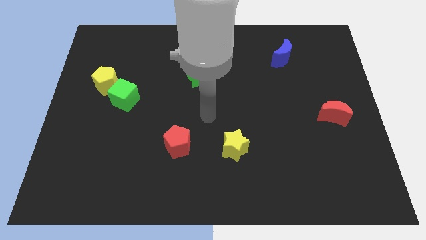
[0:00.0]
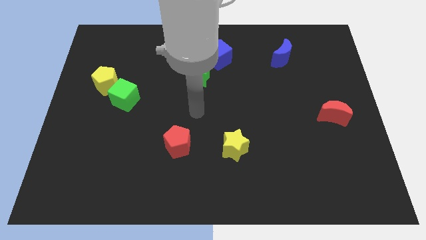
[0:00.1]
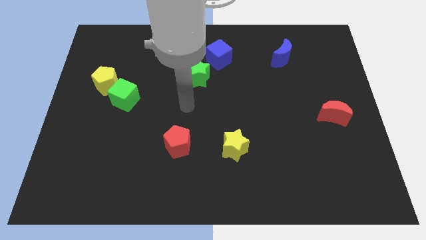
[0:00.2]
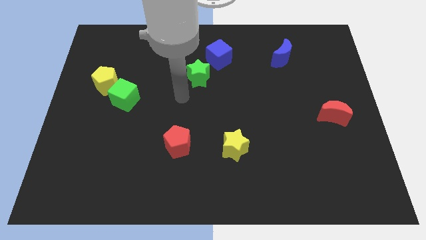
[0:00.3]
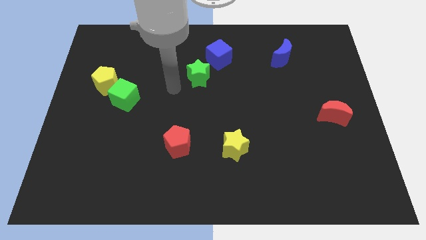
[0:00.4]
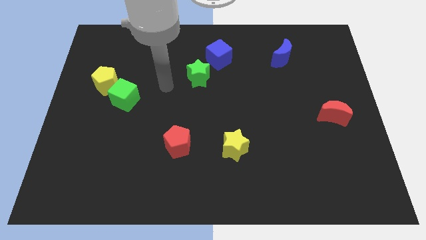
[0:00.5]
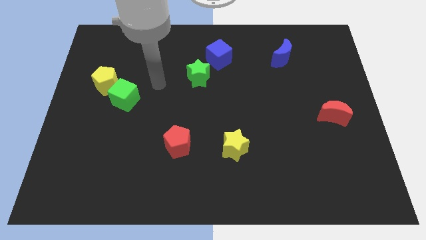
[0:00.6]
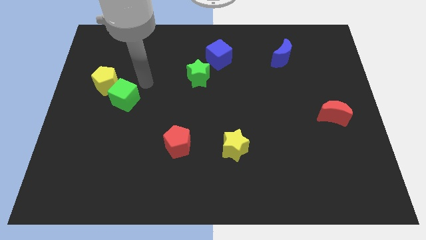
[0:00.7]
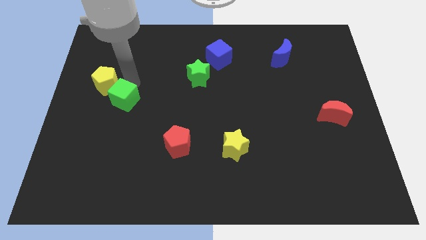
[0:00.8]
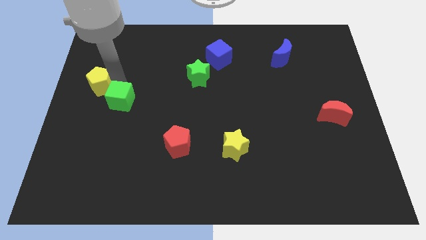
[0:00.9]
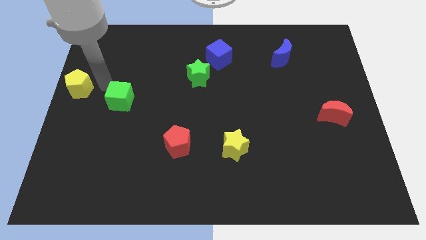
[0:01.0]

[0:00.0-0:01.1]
pull the green cube apart from the yellow pentagon

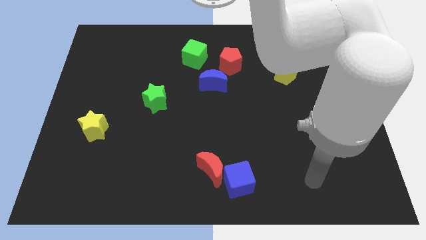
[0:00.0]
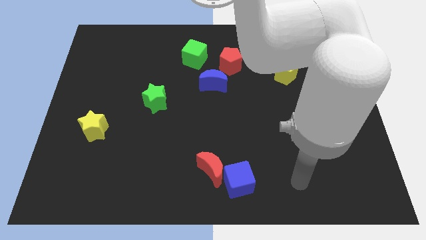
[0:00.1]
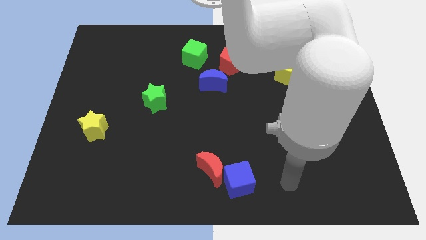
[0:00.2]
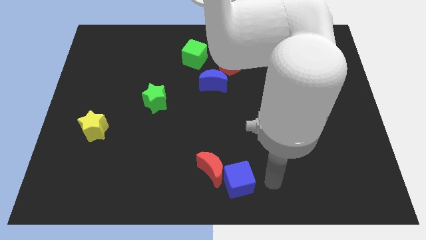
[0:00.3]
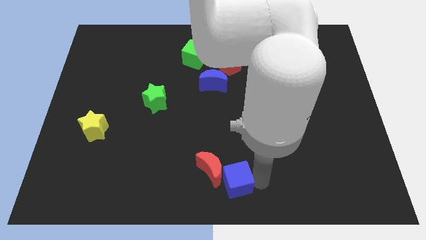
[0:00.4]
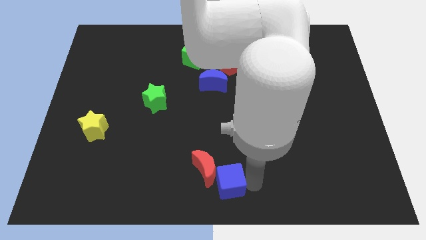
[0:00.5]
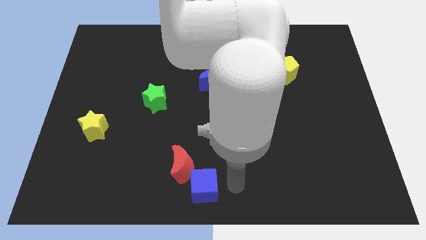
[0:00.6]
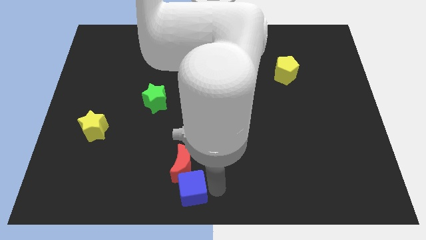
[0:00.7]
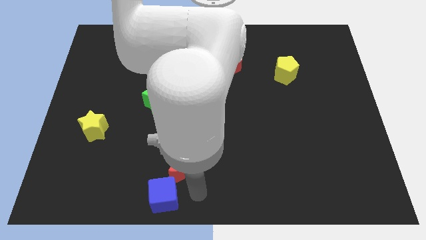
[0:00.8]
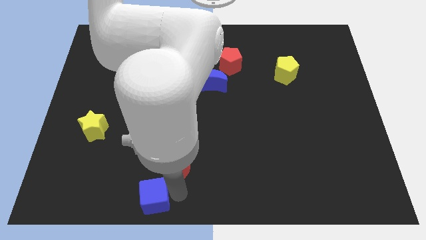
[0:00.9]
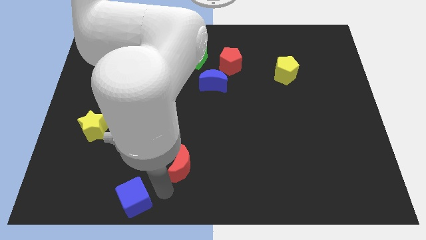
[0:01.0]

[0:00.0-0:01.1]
move the red moon away from the blue cube

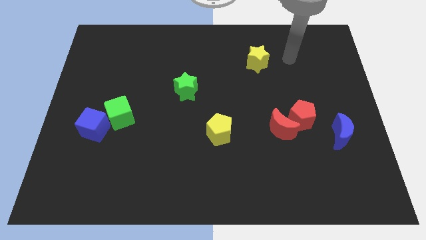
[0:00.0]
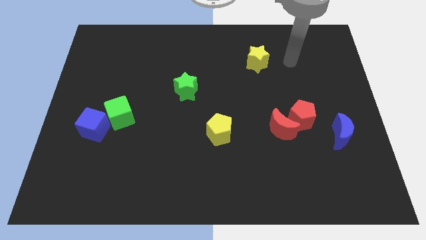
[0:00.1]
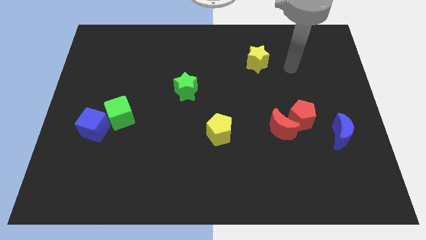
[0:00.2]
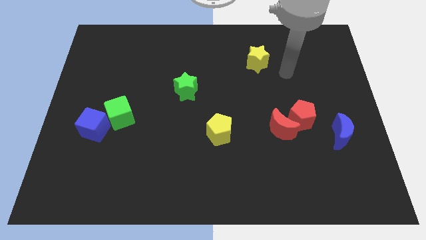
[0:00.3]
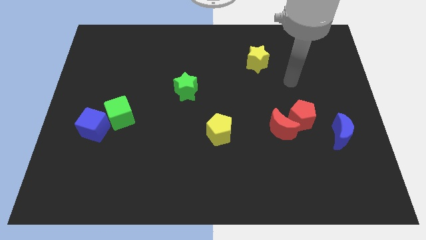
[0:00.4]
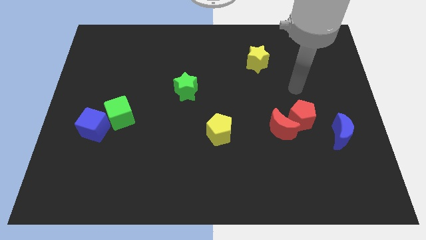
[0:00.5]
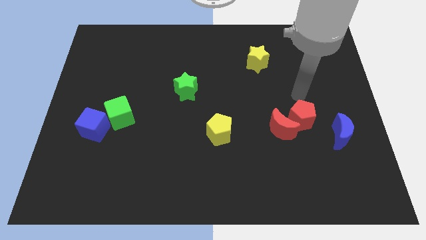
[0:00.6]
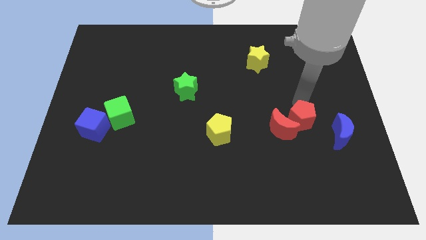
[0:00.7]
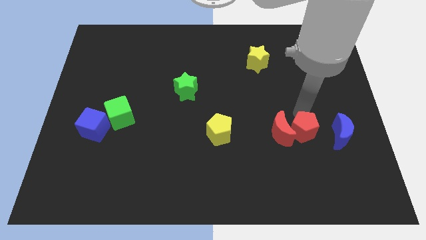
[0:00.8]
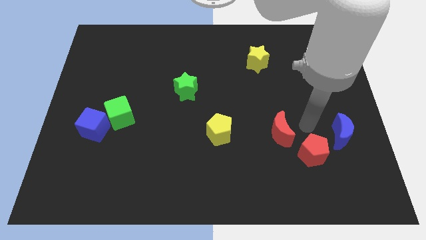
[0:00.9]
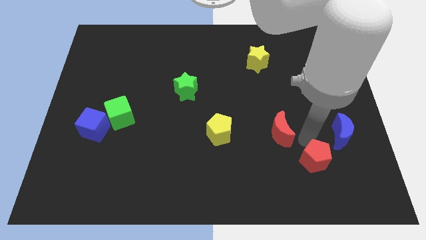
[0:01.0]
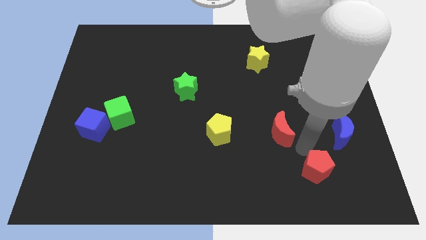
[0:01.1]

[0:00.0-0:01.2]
separate the red moon from the red pentagon

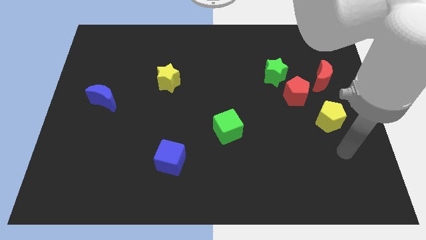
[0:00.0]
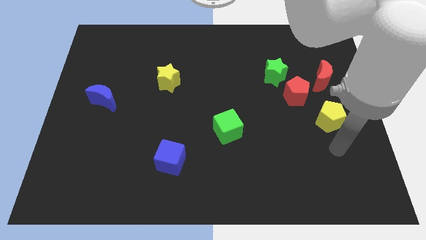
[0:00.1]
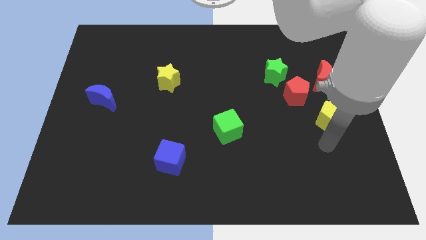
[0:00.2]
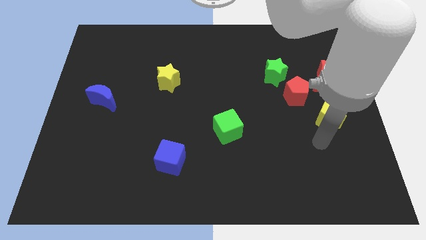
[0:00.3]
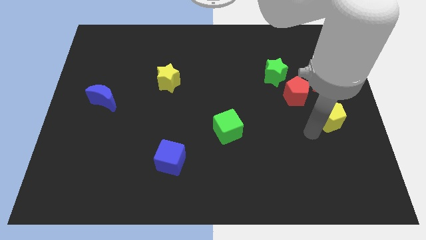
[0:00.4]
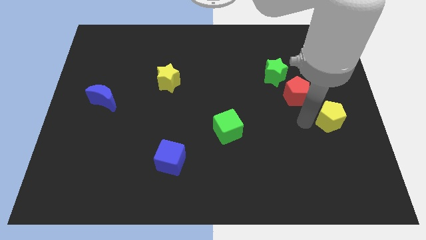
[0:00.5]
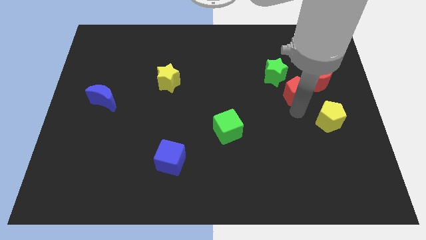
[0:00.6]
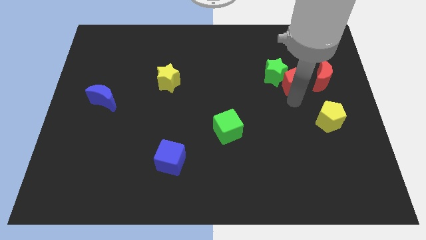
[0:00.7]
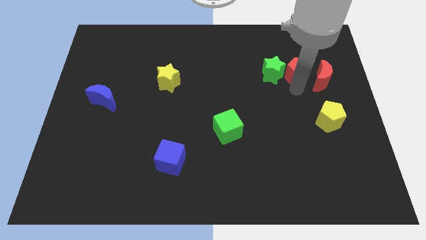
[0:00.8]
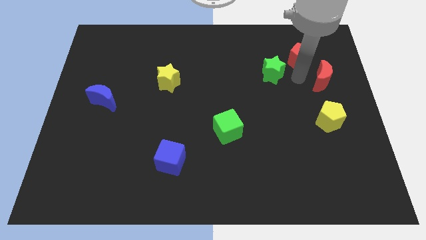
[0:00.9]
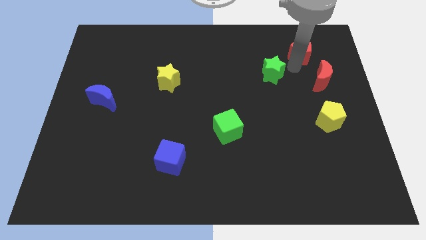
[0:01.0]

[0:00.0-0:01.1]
separate the green star from the red pentagon

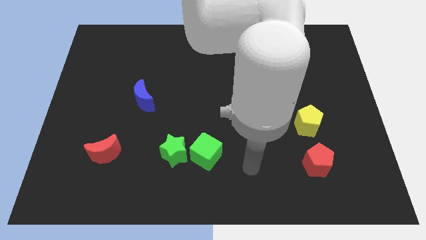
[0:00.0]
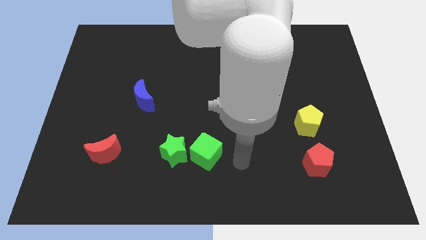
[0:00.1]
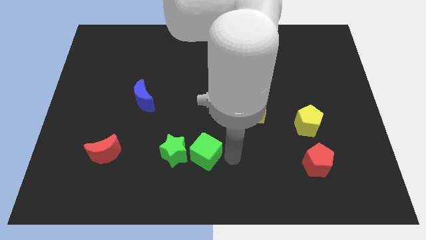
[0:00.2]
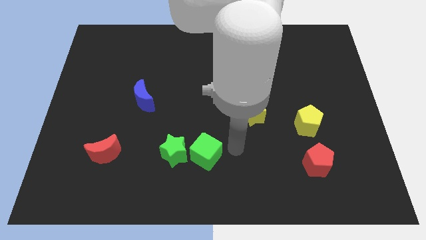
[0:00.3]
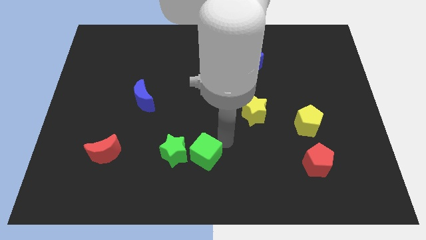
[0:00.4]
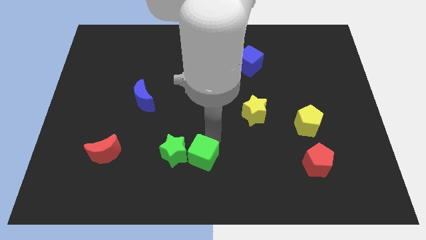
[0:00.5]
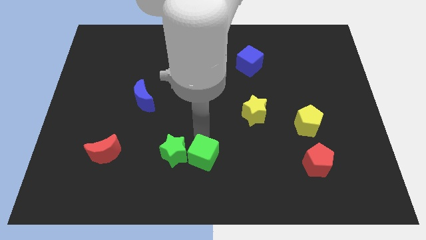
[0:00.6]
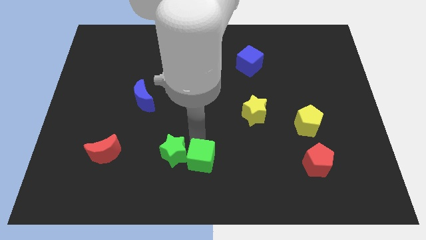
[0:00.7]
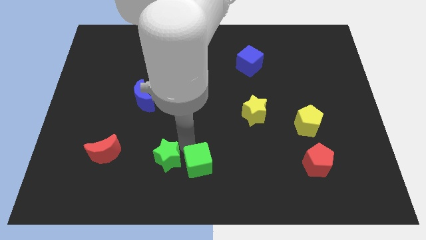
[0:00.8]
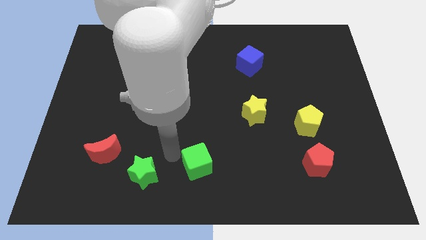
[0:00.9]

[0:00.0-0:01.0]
pull the green cube apart from the green star

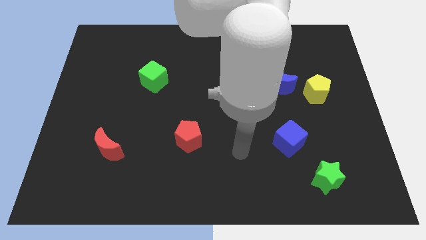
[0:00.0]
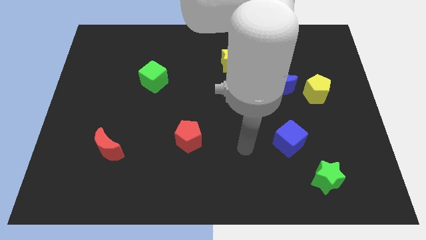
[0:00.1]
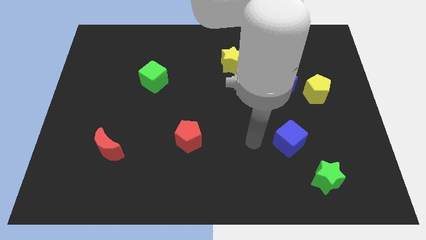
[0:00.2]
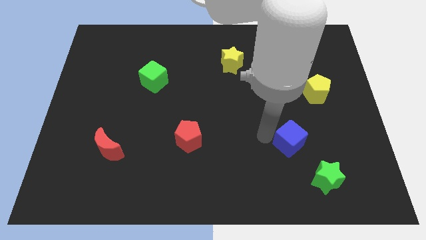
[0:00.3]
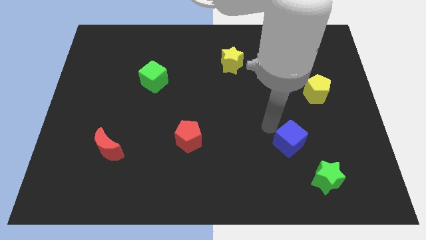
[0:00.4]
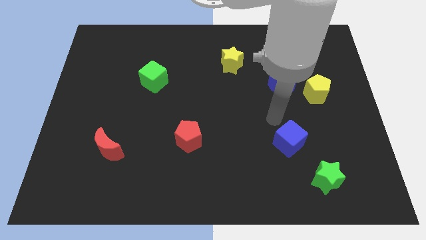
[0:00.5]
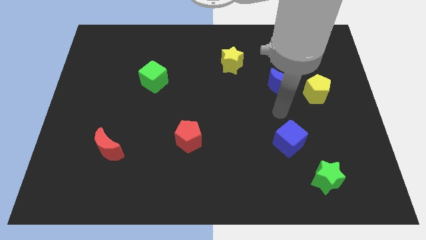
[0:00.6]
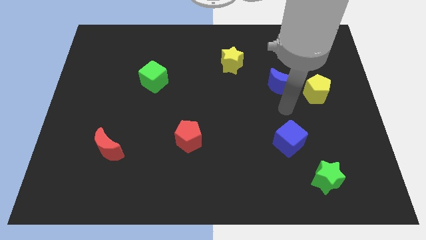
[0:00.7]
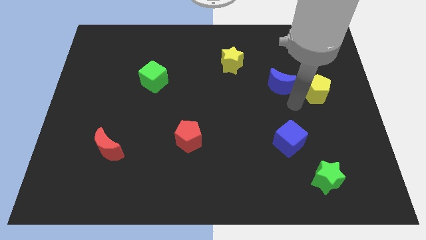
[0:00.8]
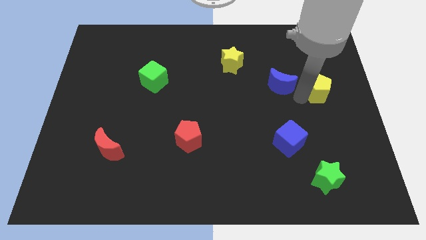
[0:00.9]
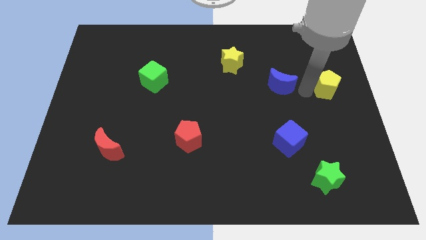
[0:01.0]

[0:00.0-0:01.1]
separate the blue moon from the yellow pentagon

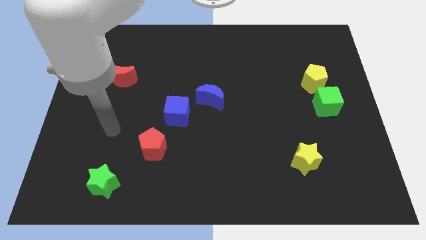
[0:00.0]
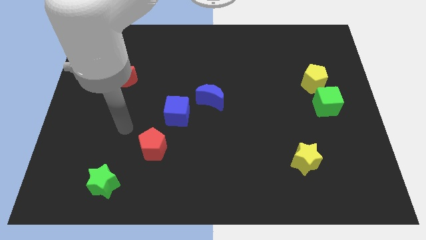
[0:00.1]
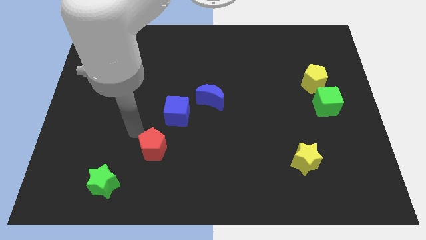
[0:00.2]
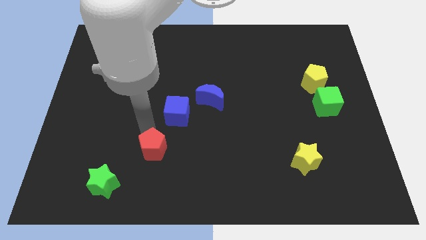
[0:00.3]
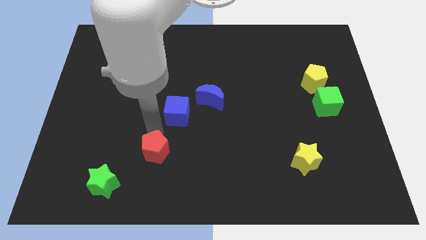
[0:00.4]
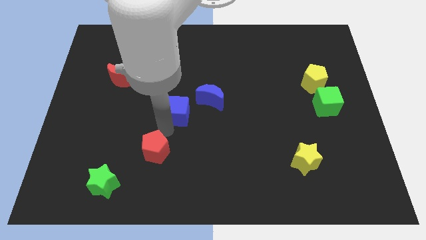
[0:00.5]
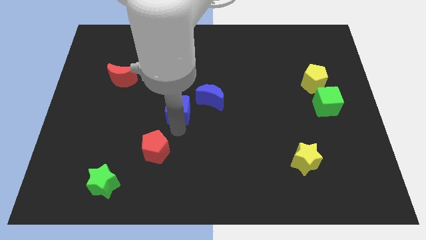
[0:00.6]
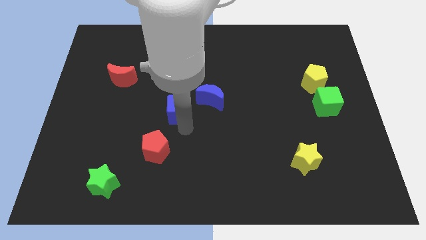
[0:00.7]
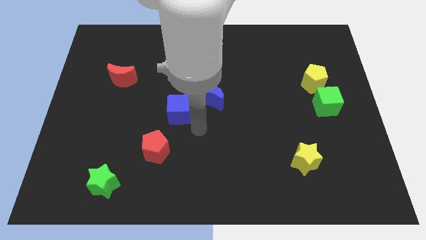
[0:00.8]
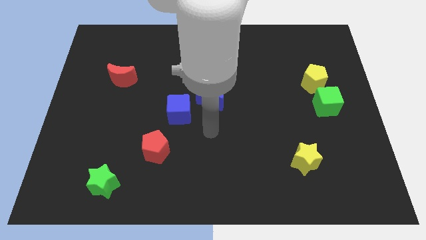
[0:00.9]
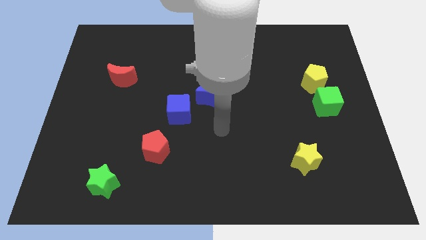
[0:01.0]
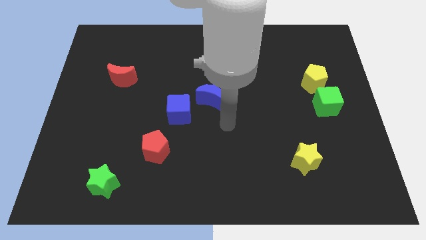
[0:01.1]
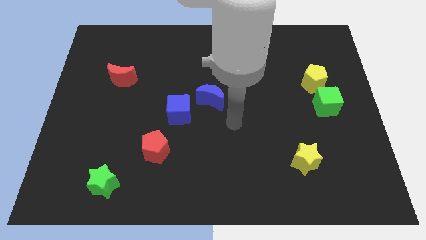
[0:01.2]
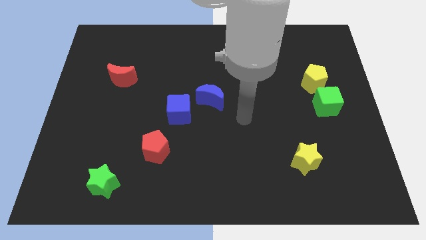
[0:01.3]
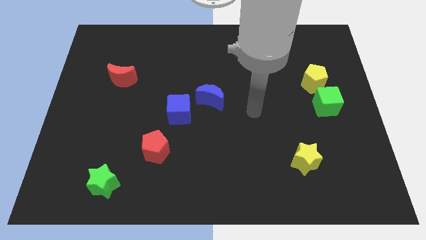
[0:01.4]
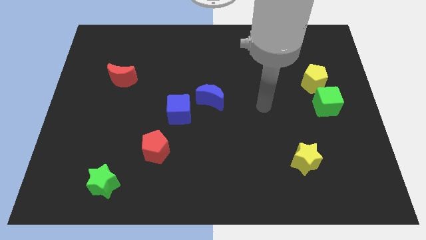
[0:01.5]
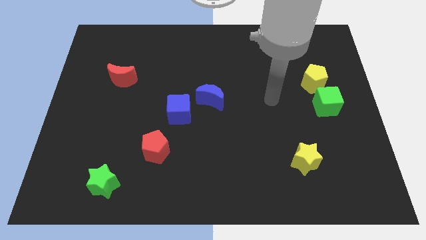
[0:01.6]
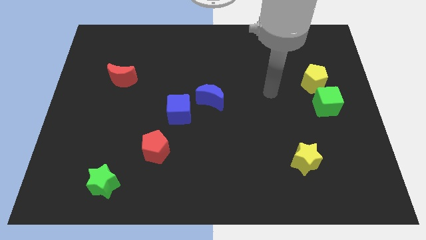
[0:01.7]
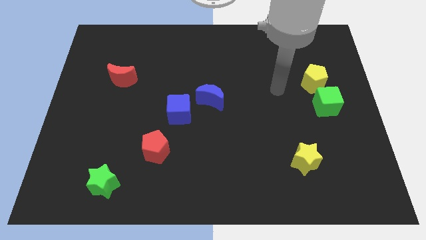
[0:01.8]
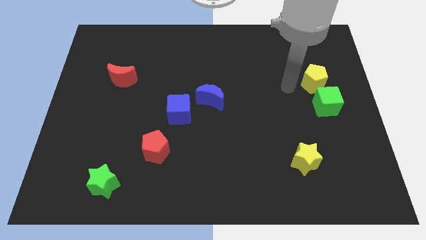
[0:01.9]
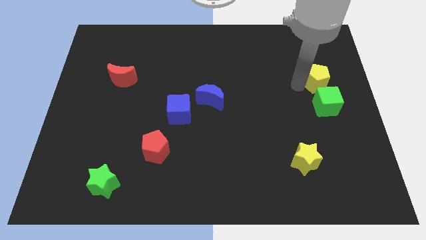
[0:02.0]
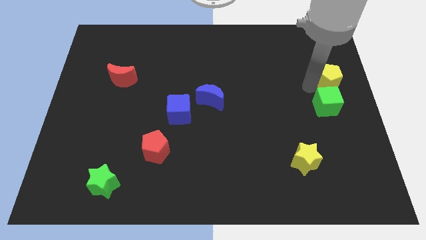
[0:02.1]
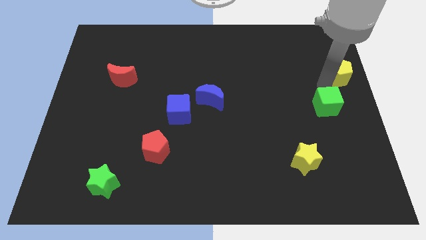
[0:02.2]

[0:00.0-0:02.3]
move the green cube away from the yellow pentagon

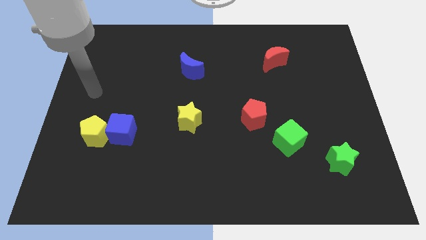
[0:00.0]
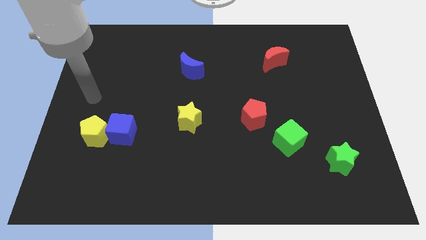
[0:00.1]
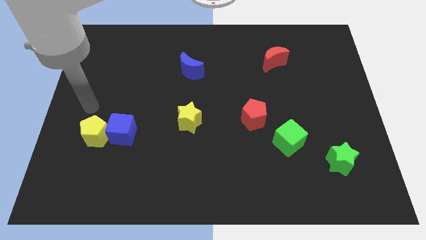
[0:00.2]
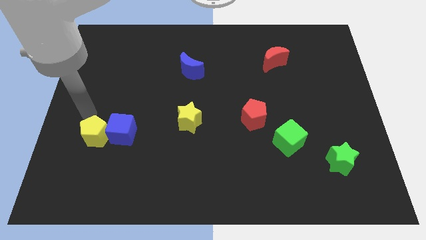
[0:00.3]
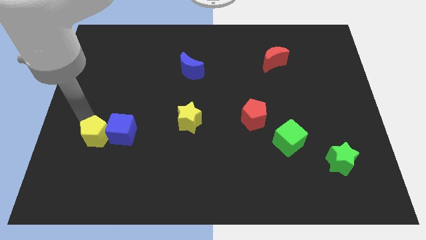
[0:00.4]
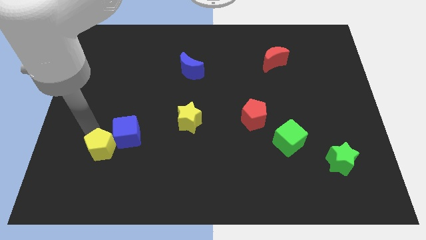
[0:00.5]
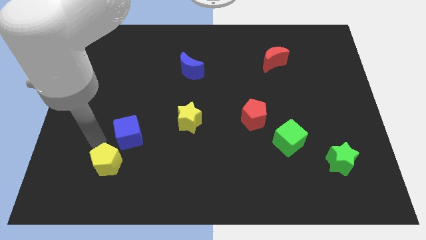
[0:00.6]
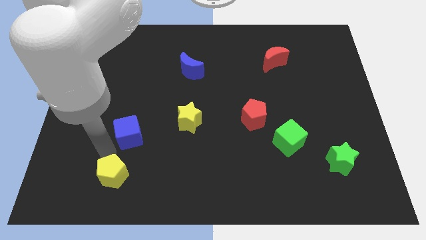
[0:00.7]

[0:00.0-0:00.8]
move the blue cube away from the yellow pentagon
